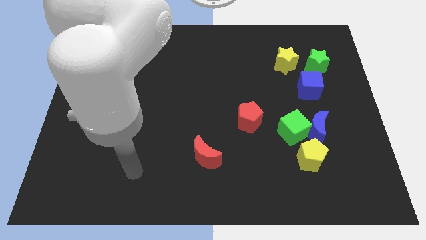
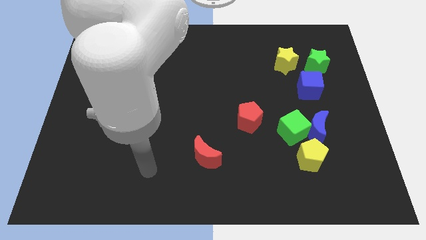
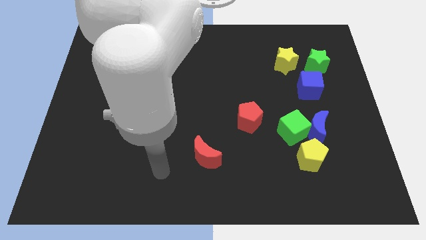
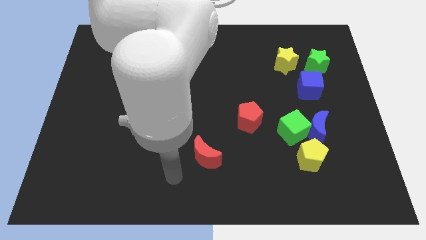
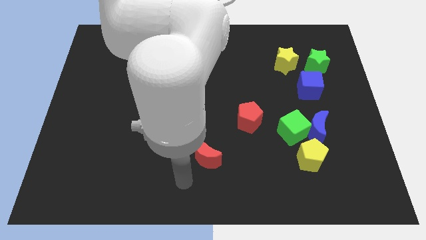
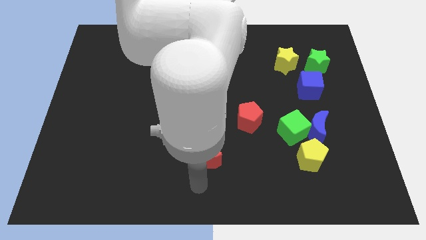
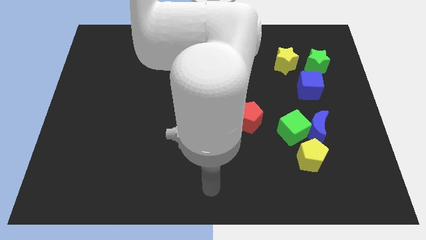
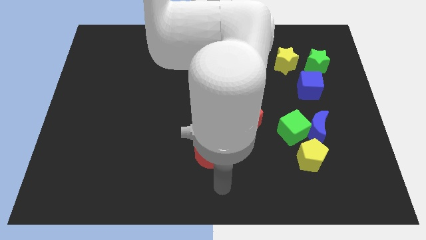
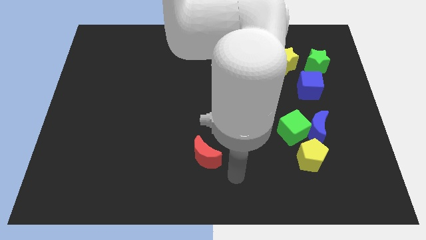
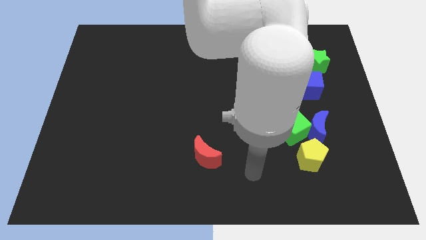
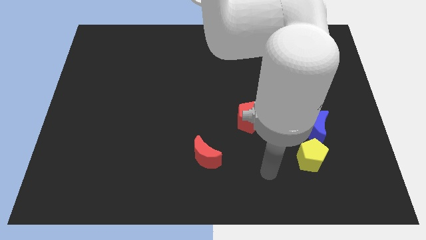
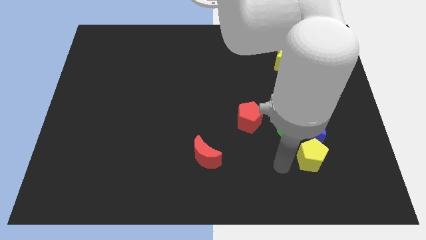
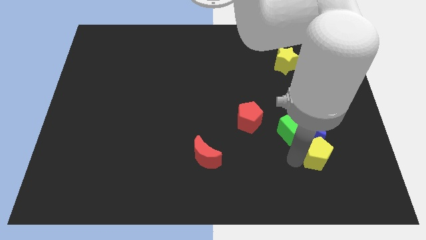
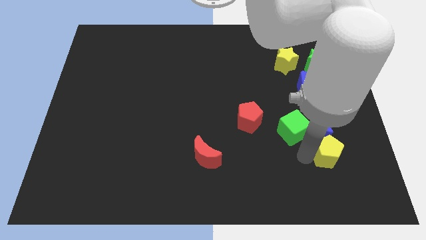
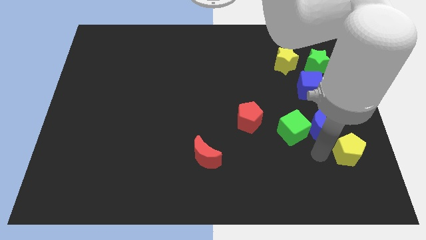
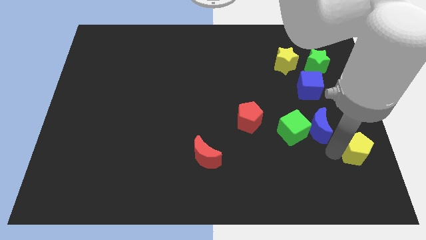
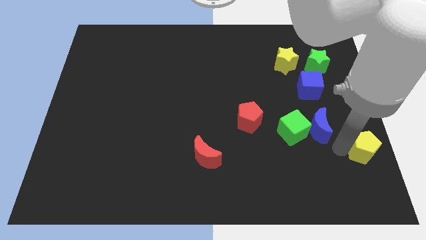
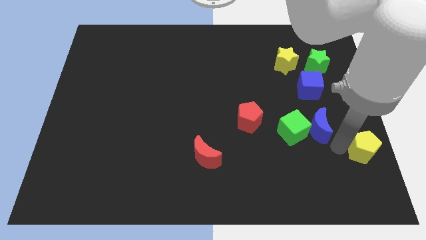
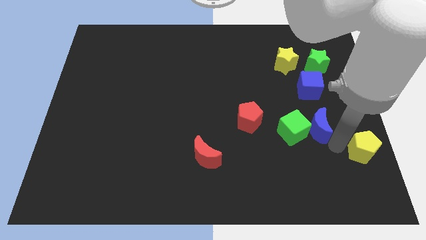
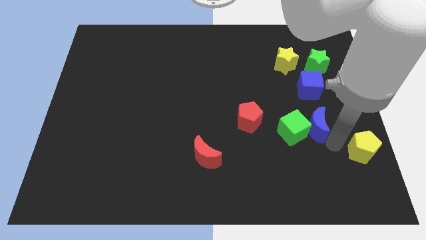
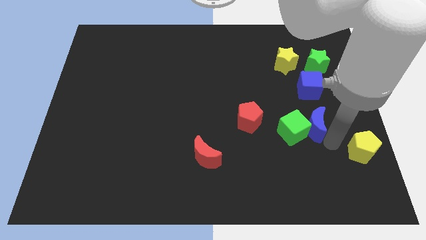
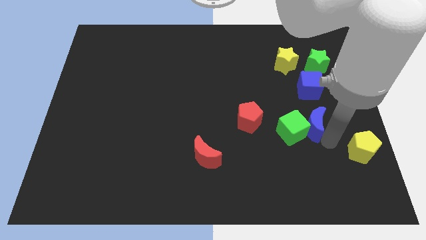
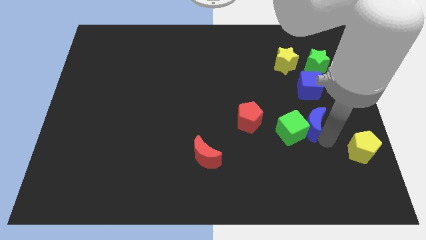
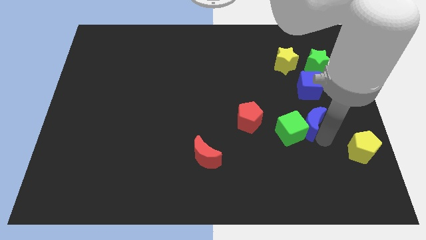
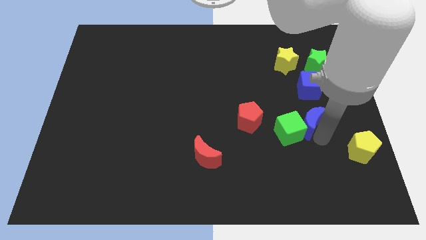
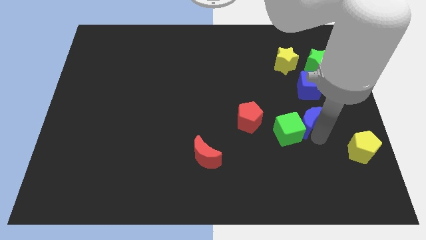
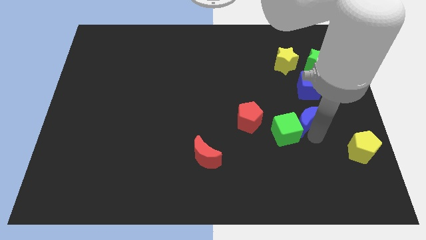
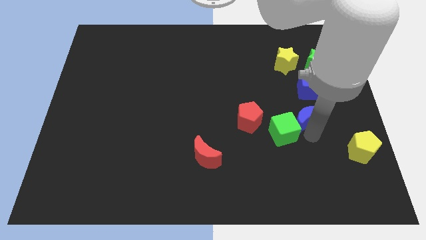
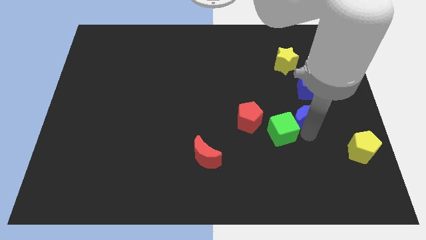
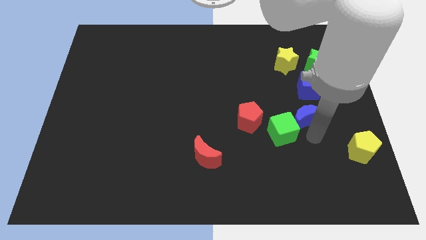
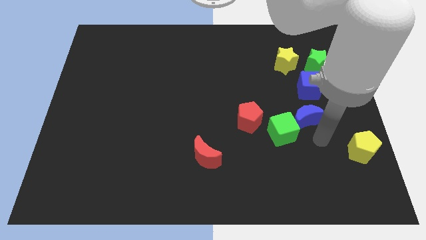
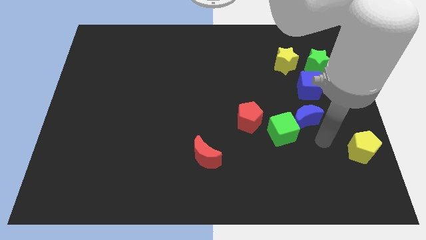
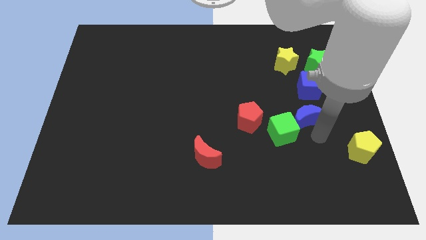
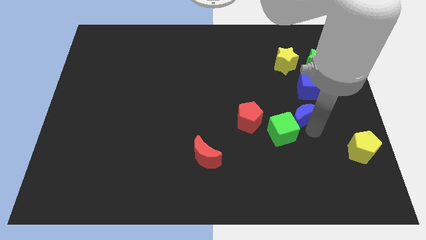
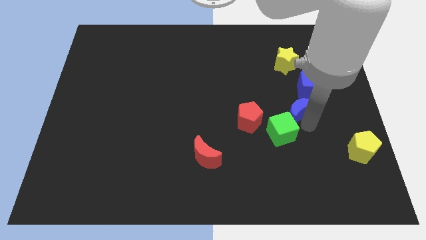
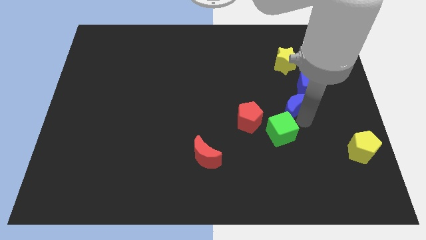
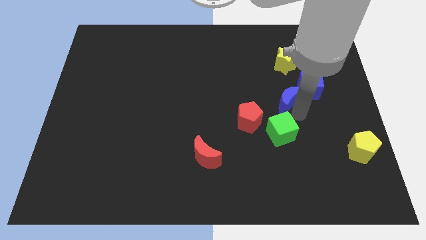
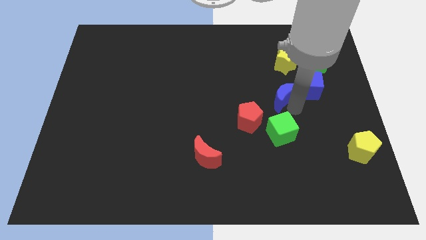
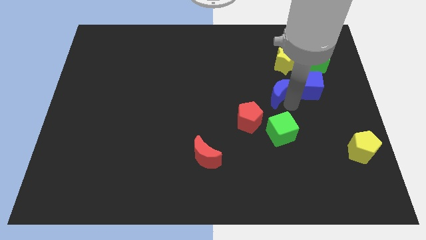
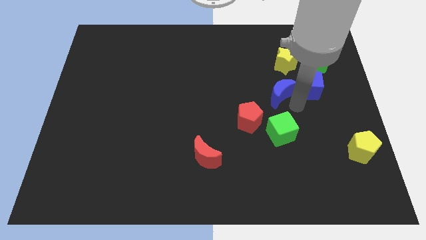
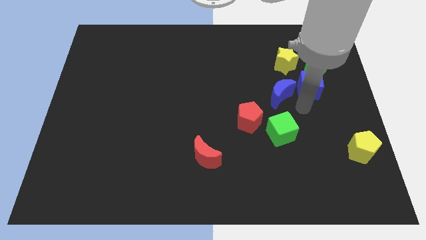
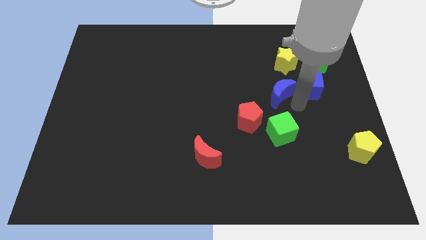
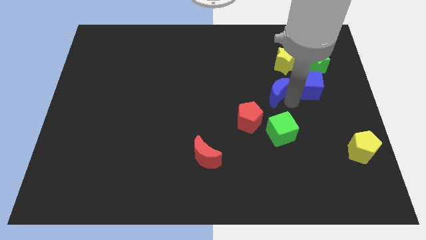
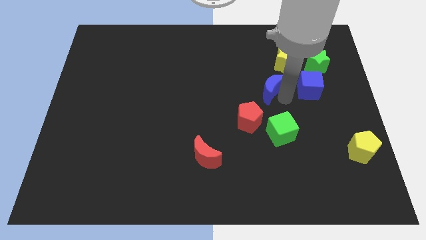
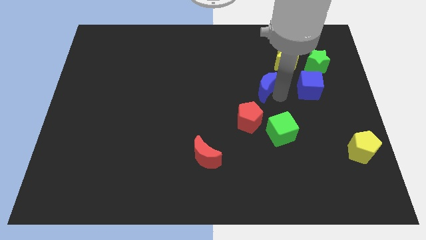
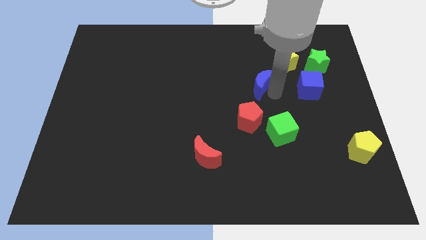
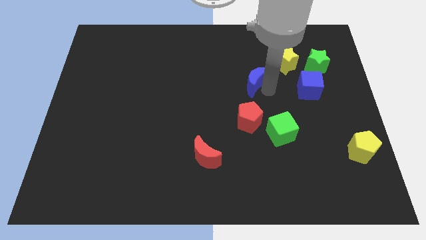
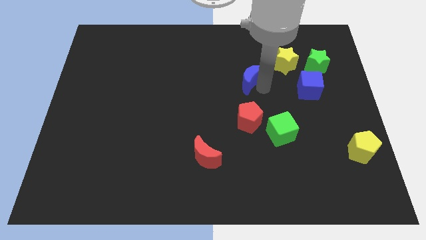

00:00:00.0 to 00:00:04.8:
move the blue moon diagonally upwards and left

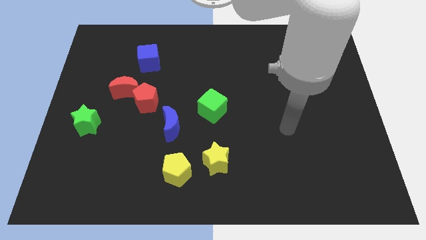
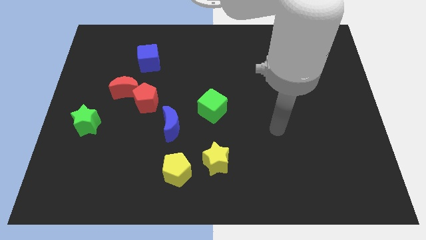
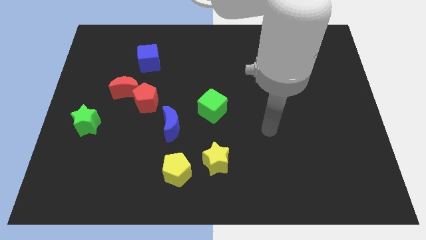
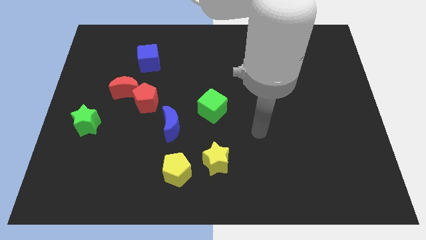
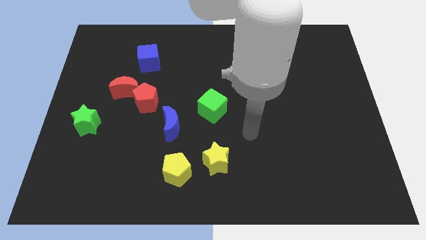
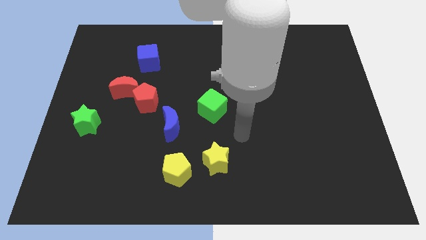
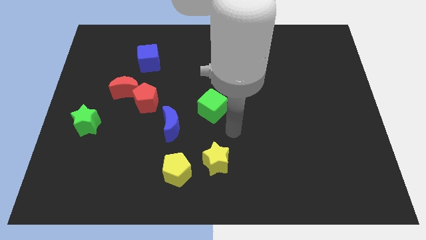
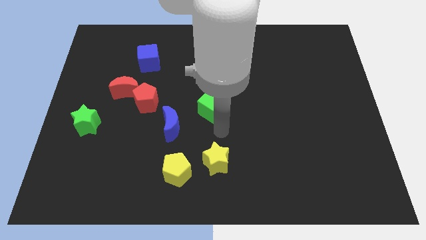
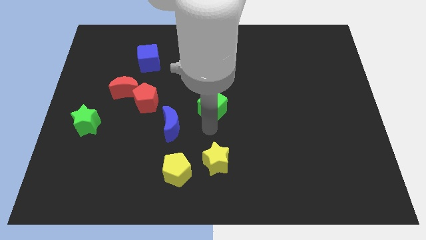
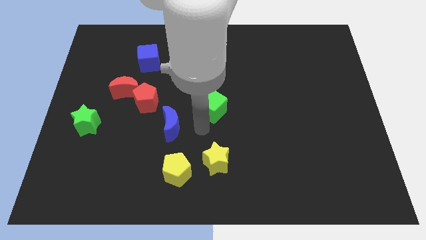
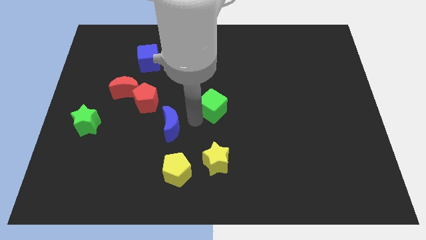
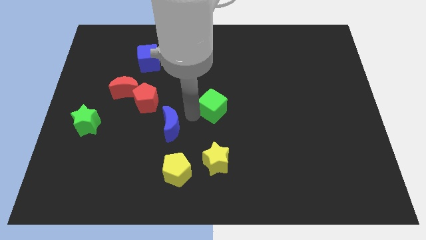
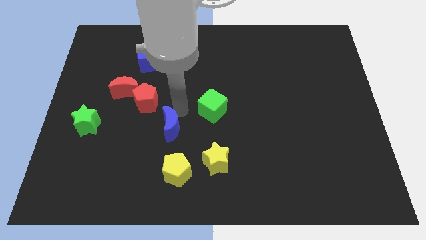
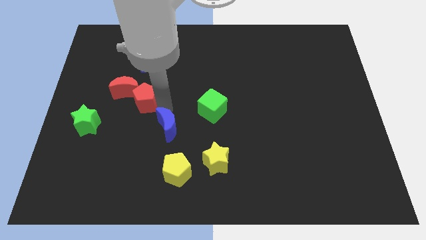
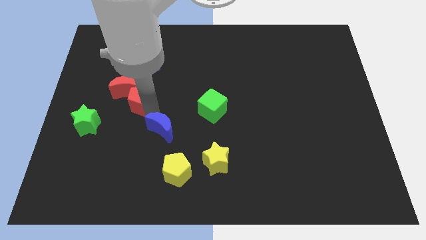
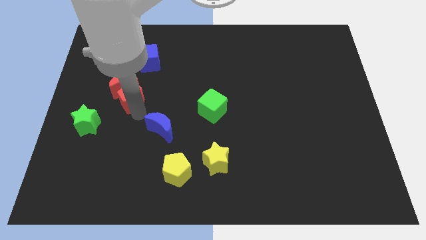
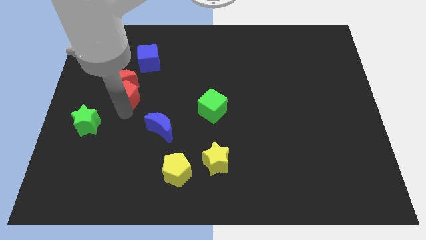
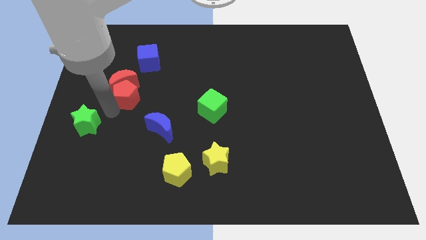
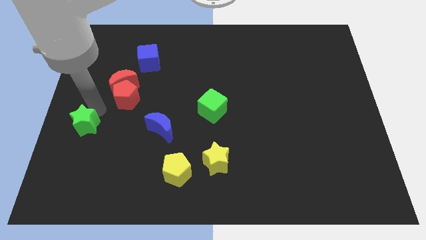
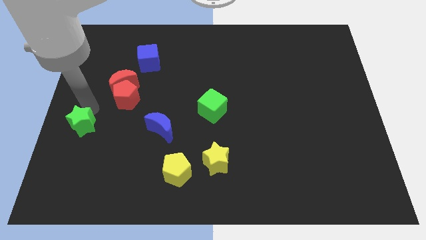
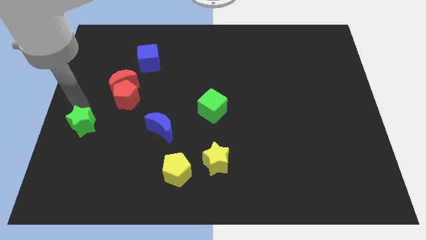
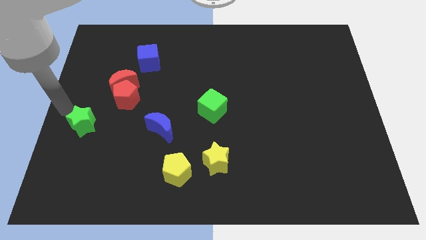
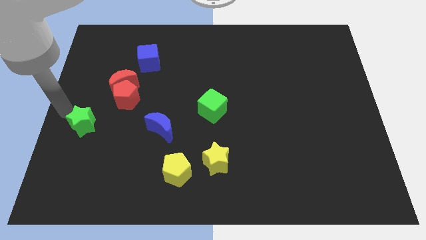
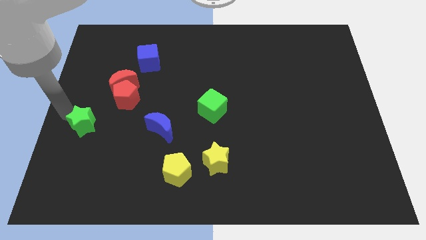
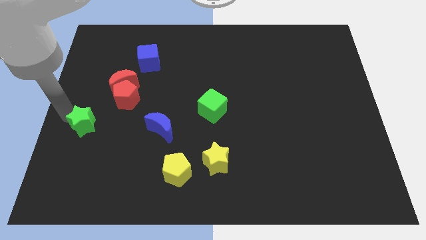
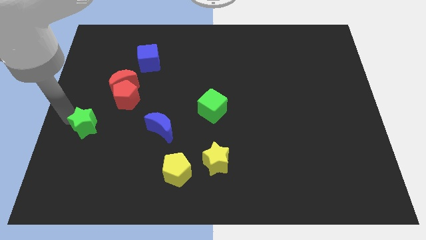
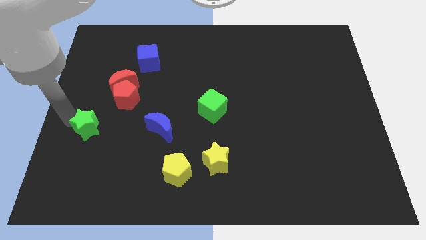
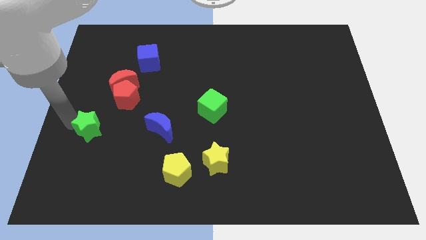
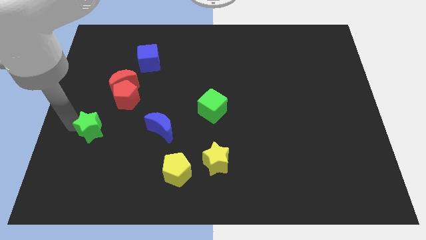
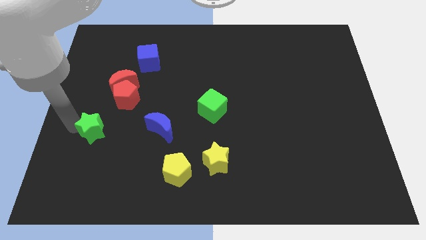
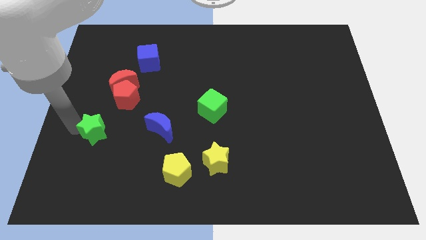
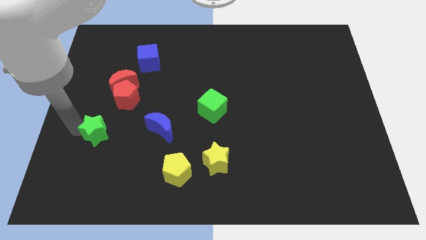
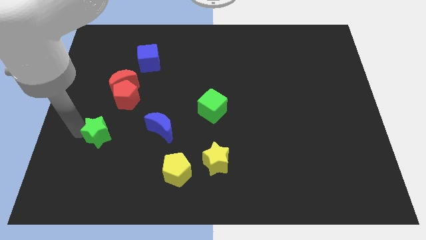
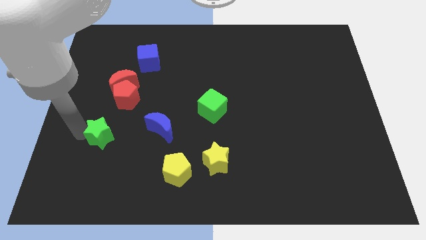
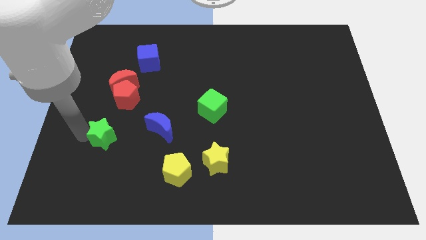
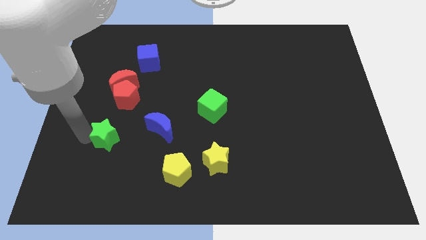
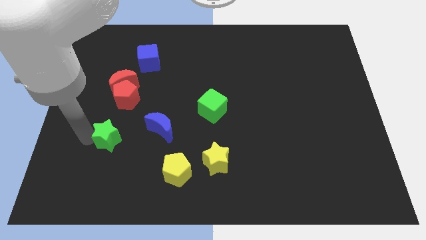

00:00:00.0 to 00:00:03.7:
push the green star a little diagonally downwards and to the right
